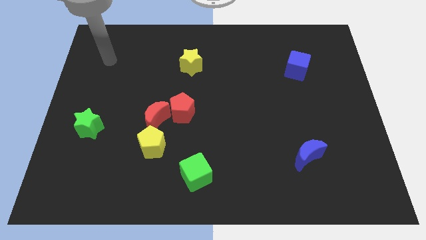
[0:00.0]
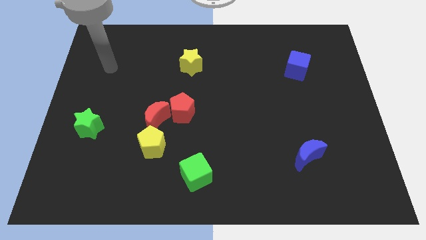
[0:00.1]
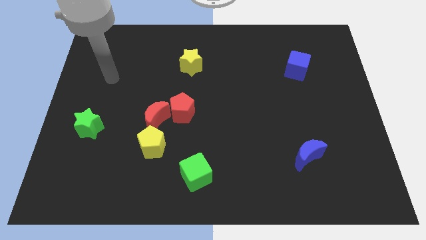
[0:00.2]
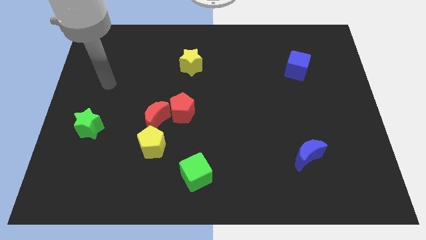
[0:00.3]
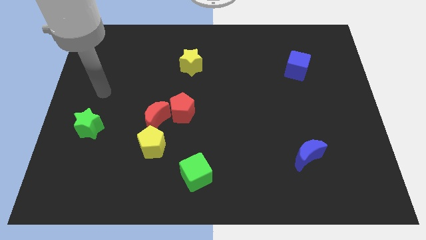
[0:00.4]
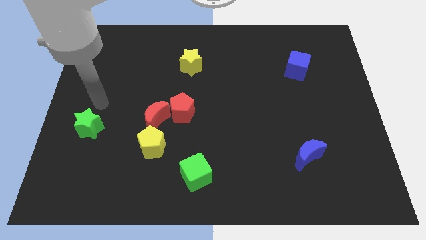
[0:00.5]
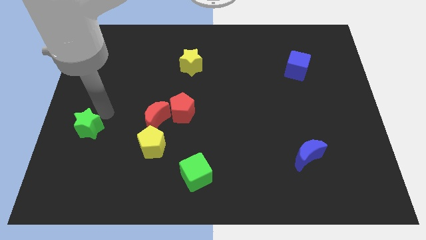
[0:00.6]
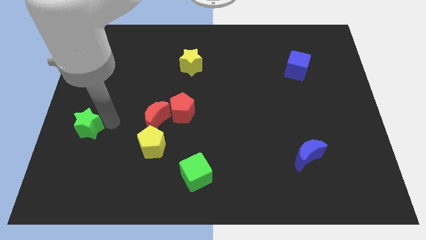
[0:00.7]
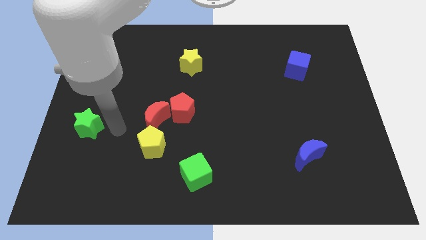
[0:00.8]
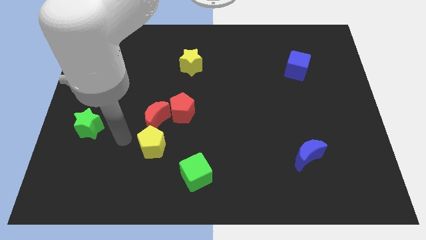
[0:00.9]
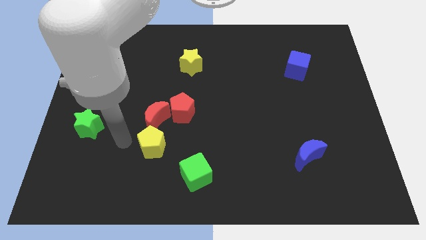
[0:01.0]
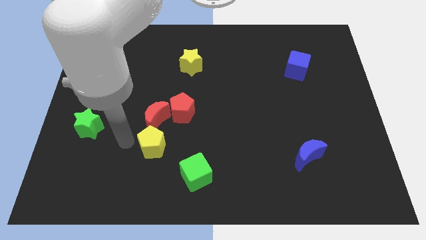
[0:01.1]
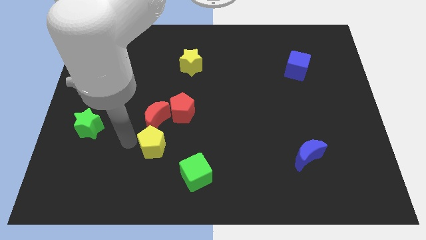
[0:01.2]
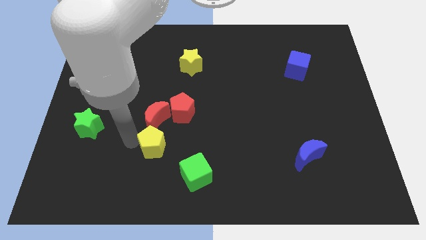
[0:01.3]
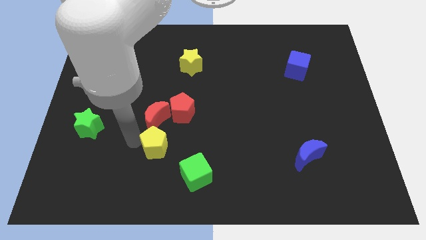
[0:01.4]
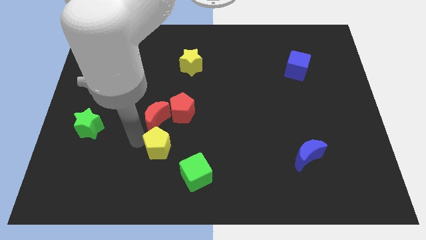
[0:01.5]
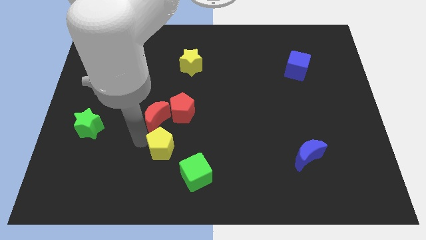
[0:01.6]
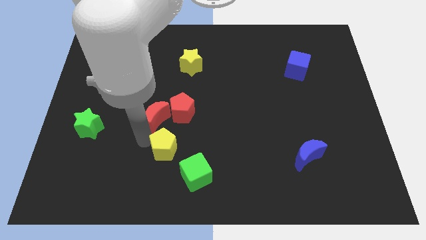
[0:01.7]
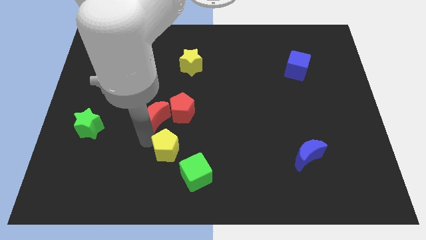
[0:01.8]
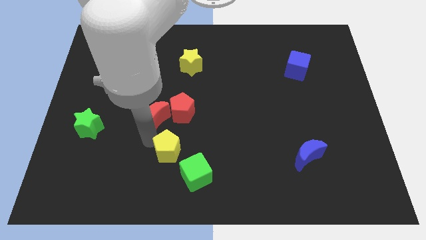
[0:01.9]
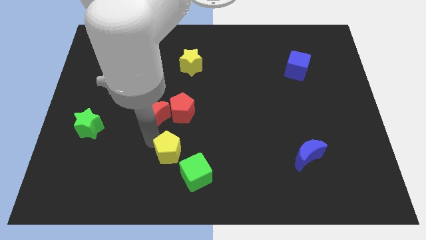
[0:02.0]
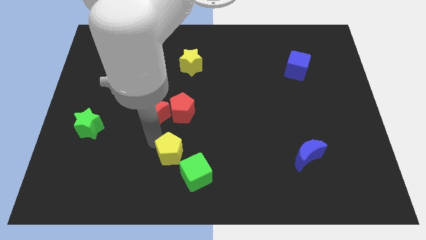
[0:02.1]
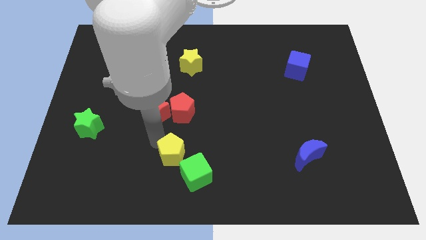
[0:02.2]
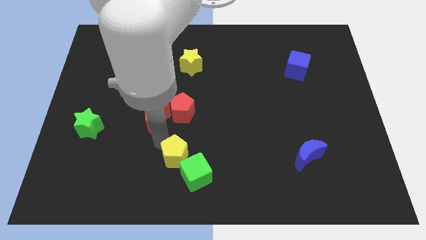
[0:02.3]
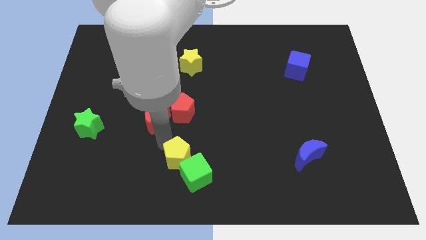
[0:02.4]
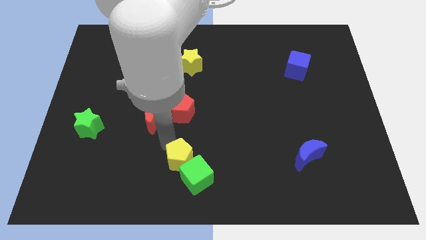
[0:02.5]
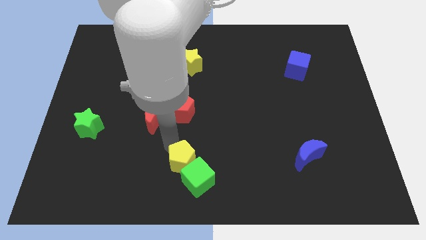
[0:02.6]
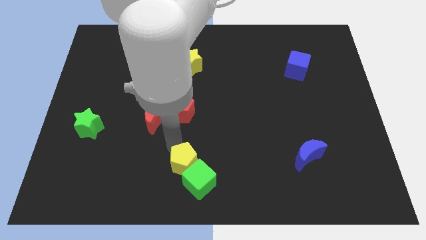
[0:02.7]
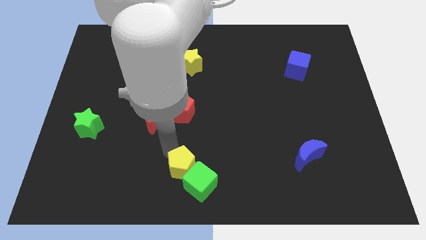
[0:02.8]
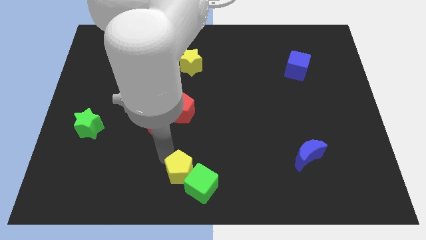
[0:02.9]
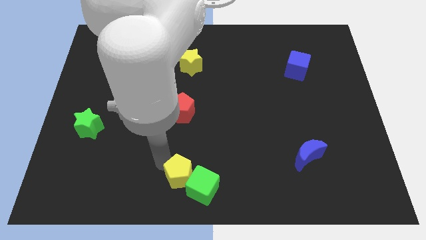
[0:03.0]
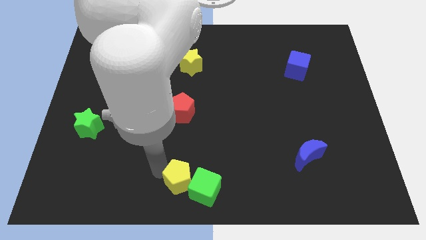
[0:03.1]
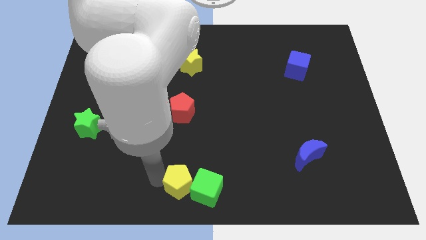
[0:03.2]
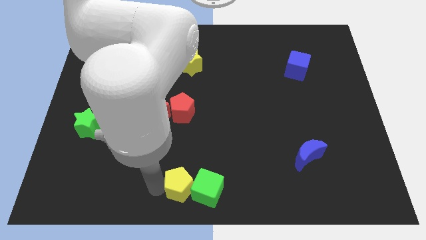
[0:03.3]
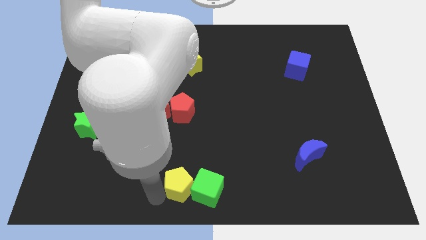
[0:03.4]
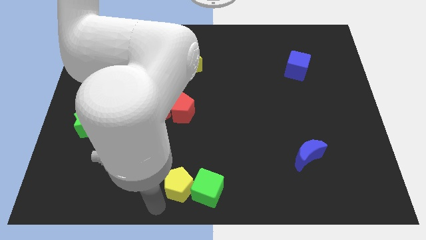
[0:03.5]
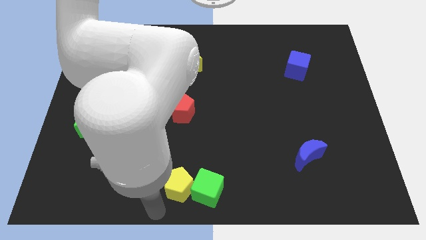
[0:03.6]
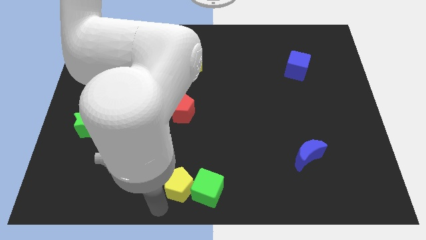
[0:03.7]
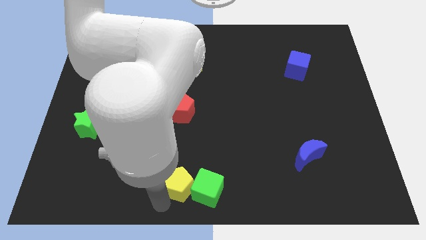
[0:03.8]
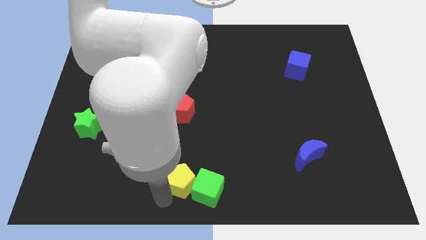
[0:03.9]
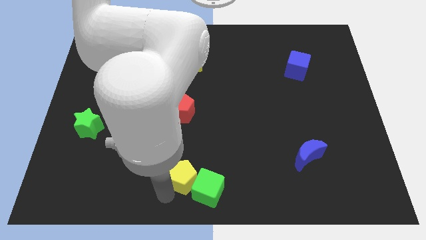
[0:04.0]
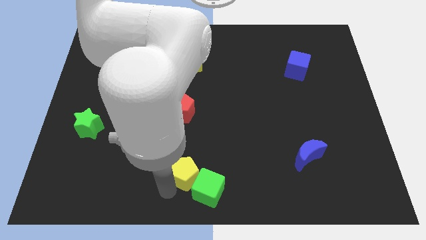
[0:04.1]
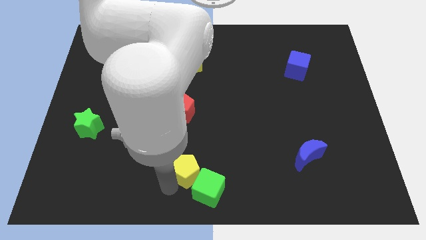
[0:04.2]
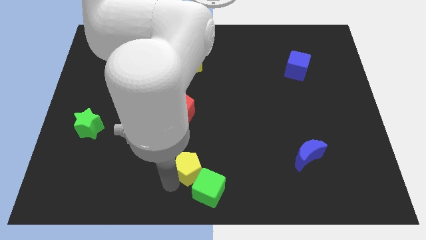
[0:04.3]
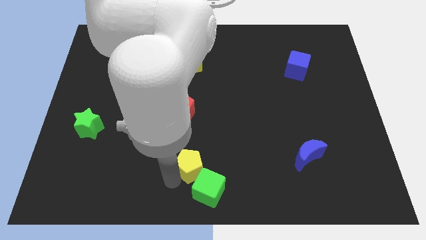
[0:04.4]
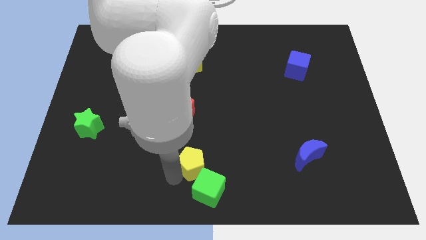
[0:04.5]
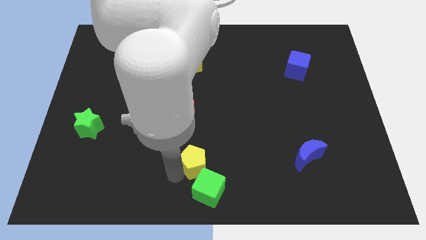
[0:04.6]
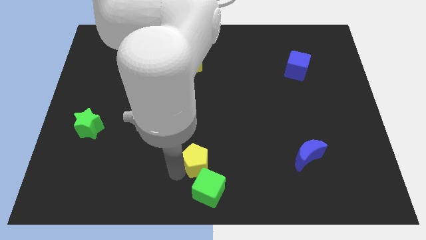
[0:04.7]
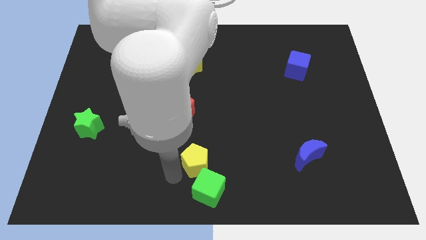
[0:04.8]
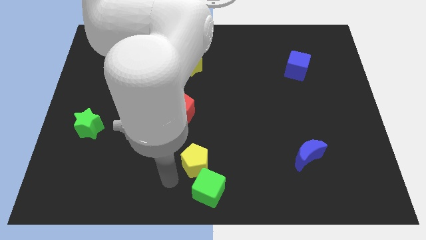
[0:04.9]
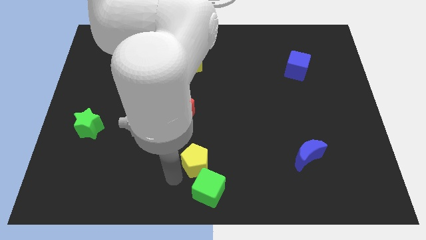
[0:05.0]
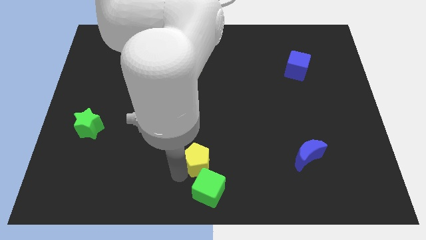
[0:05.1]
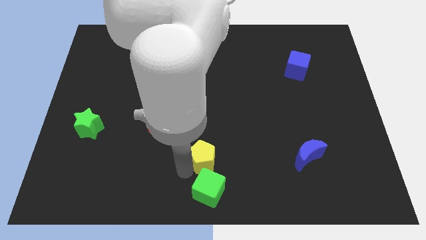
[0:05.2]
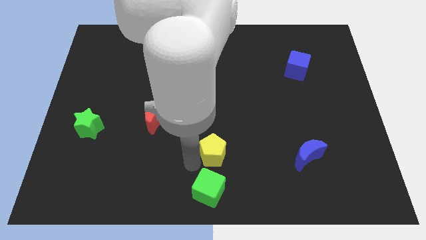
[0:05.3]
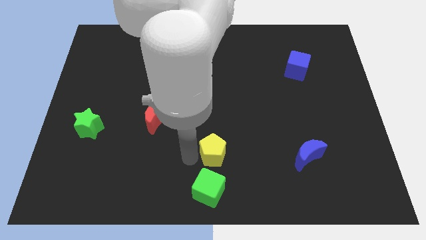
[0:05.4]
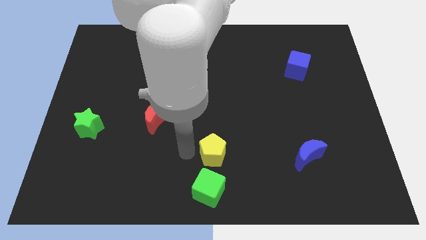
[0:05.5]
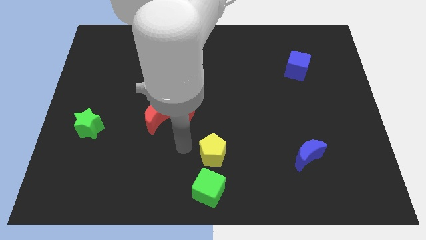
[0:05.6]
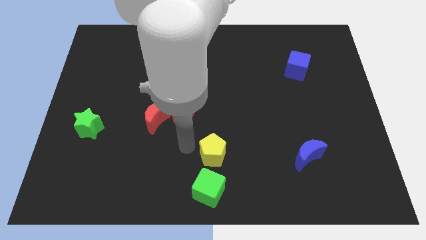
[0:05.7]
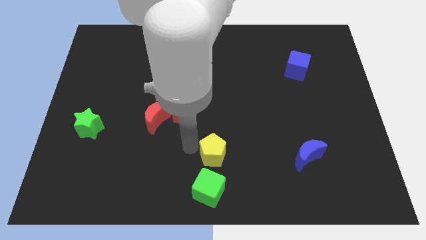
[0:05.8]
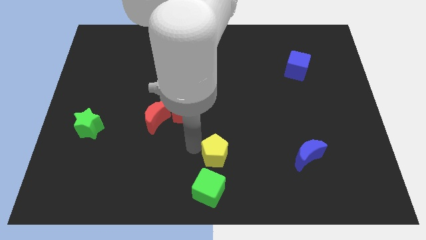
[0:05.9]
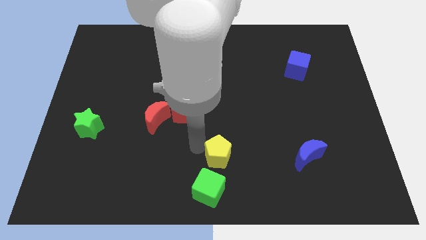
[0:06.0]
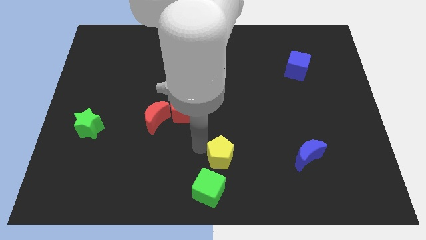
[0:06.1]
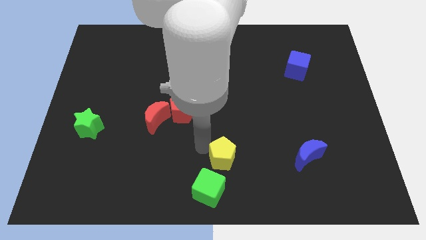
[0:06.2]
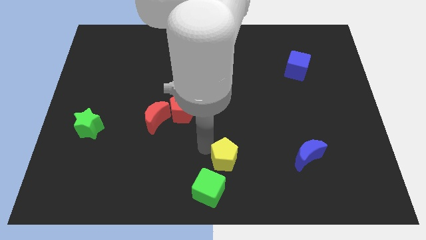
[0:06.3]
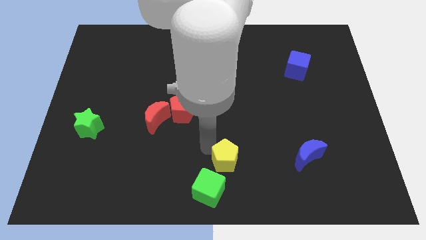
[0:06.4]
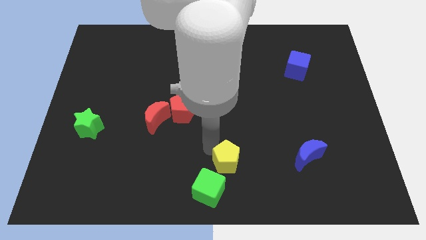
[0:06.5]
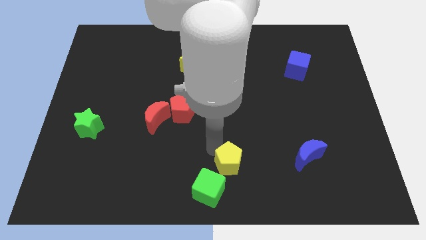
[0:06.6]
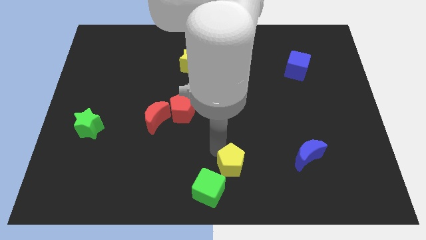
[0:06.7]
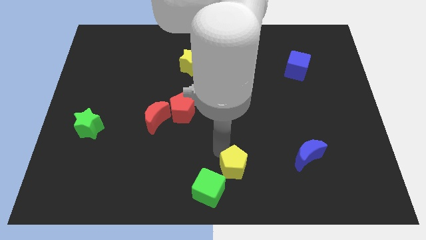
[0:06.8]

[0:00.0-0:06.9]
put the yellow pentagon to the left of the blue moon

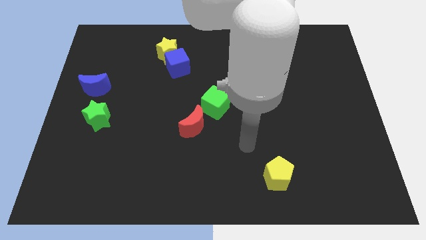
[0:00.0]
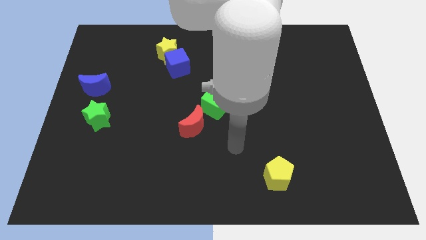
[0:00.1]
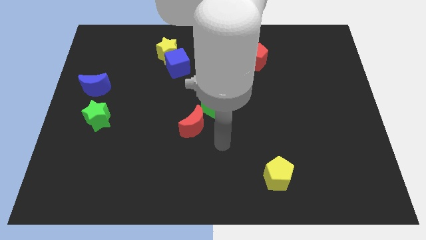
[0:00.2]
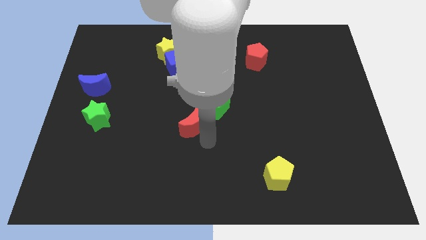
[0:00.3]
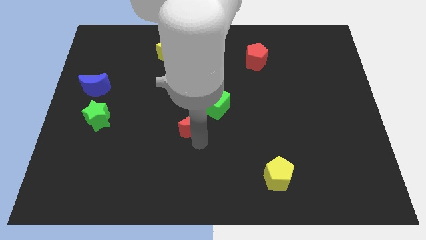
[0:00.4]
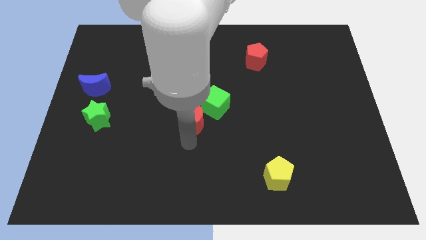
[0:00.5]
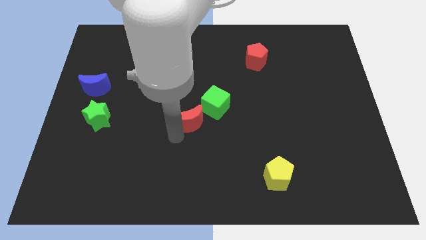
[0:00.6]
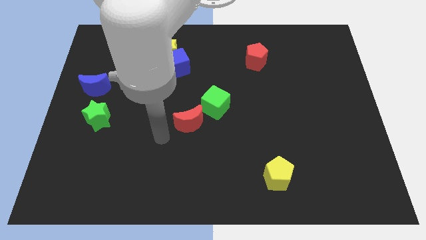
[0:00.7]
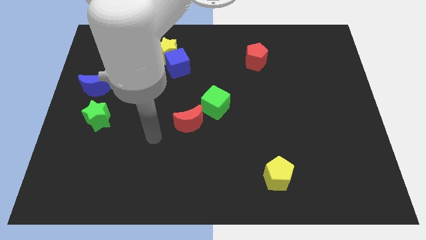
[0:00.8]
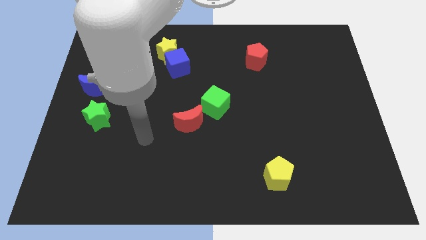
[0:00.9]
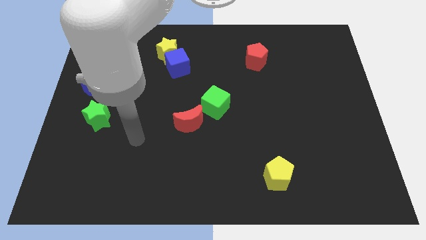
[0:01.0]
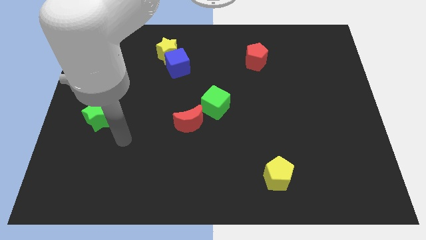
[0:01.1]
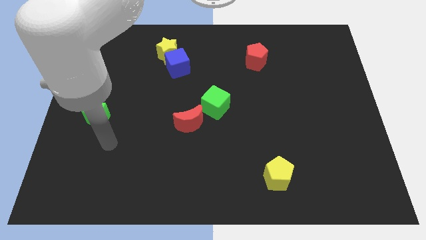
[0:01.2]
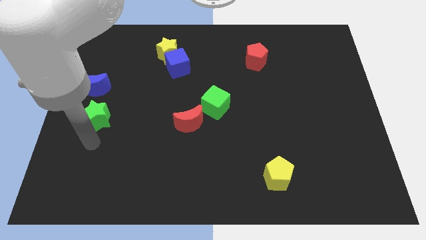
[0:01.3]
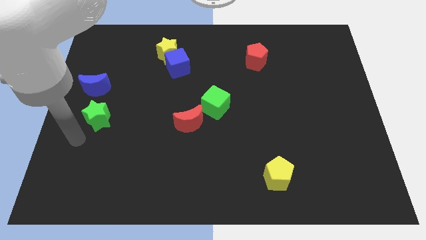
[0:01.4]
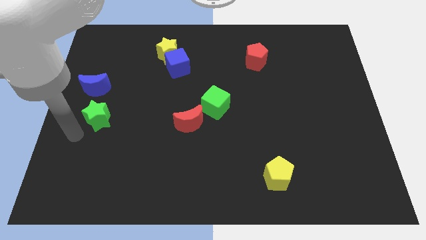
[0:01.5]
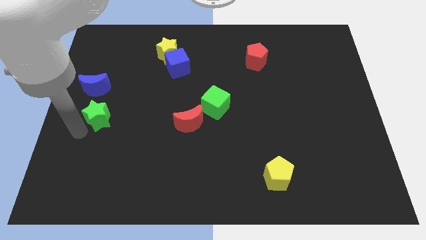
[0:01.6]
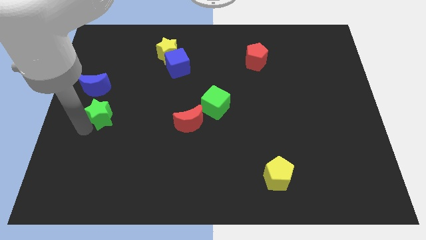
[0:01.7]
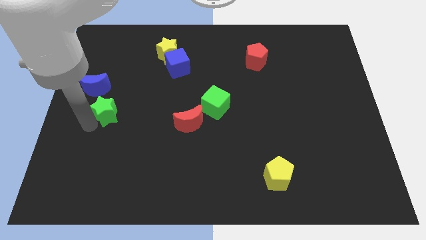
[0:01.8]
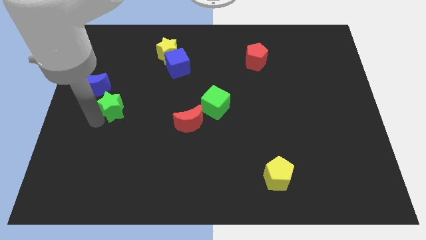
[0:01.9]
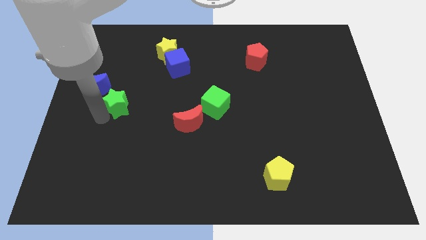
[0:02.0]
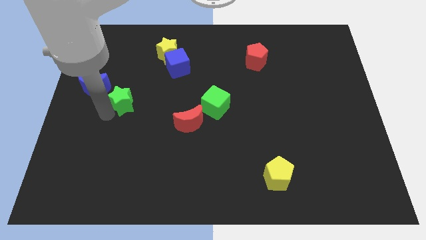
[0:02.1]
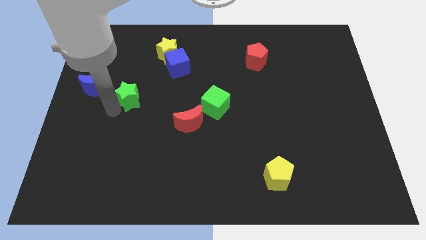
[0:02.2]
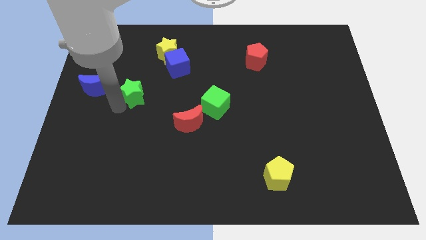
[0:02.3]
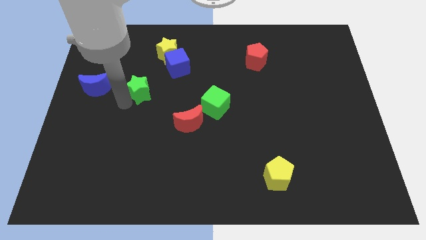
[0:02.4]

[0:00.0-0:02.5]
move the green star to the bottom left side of the blue cube
